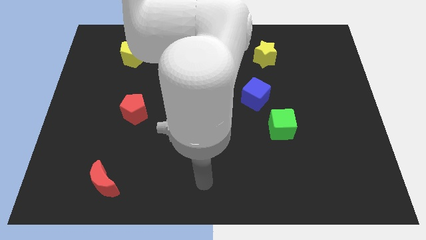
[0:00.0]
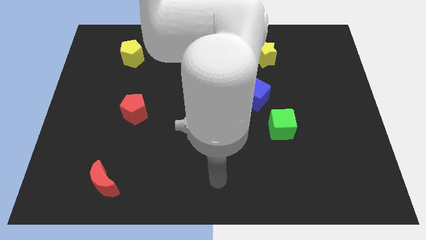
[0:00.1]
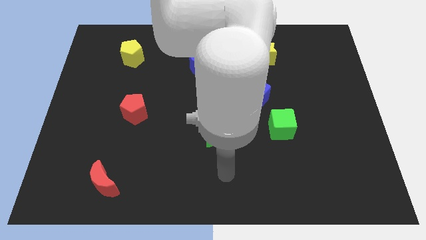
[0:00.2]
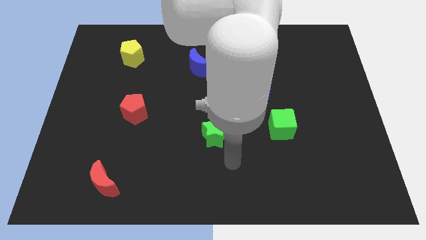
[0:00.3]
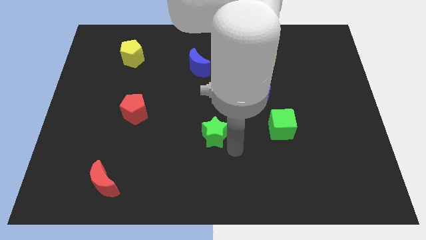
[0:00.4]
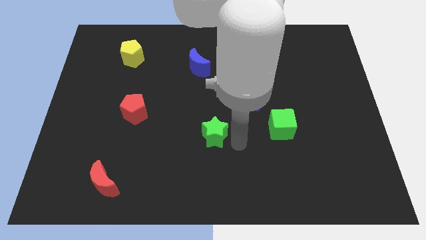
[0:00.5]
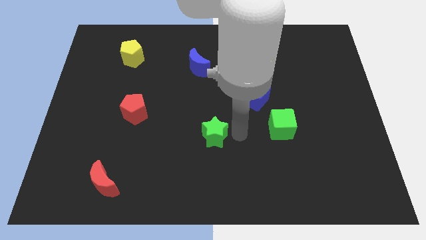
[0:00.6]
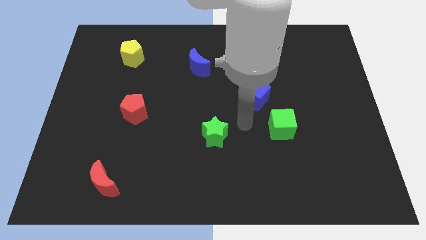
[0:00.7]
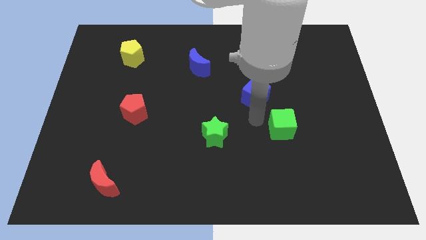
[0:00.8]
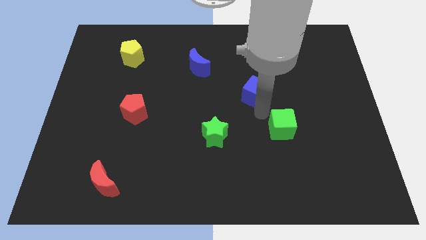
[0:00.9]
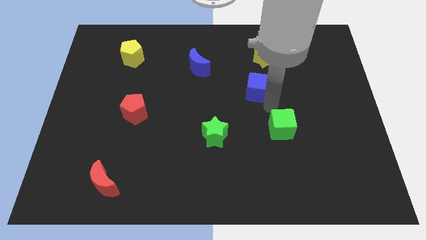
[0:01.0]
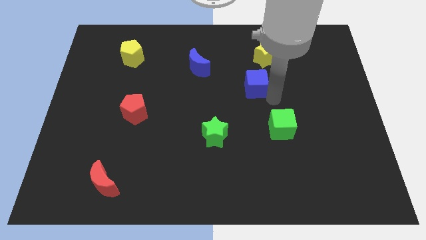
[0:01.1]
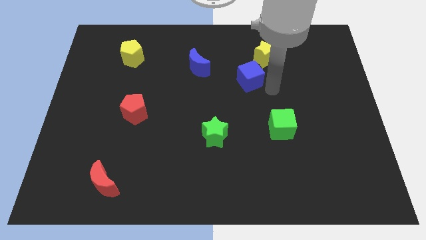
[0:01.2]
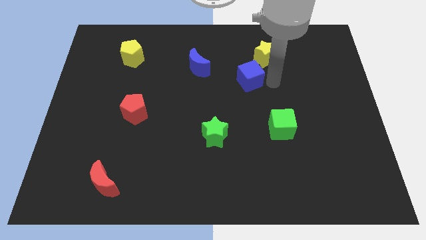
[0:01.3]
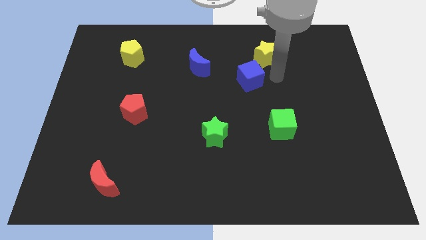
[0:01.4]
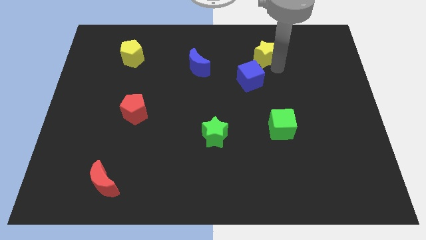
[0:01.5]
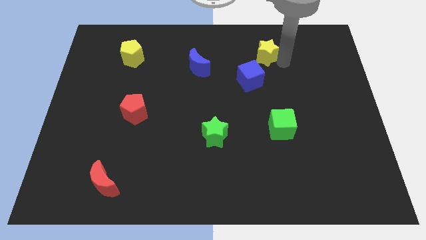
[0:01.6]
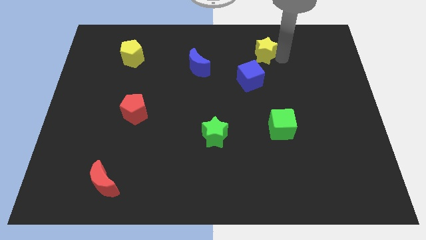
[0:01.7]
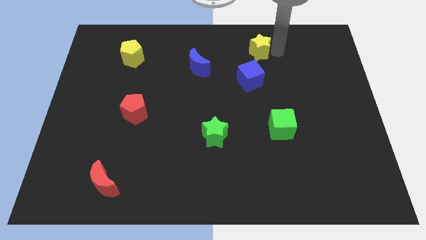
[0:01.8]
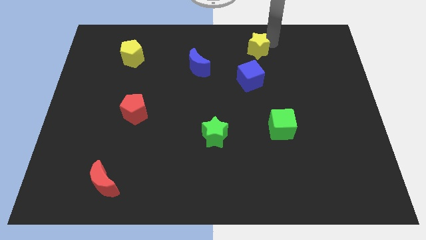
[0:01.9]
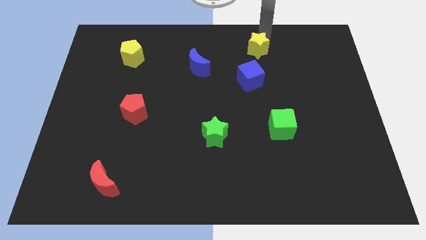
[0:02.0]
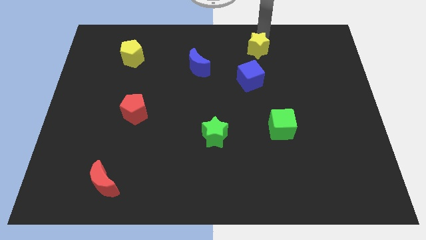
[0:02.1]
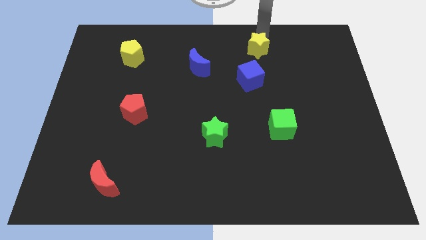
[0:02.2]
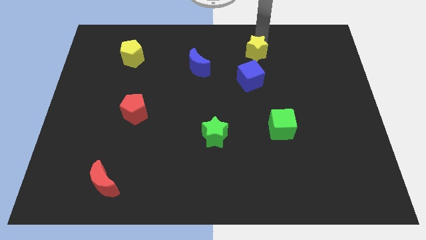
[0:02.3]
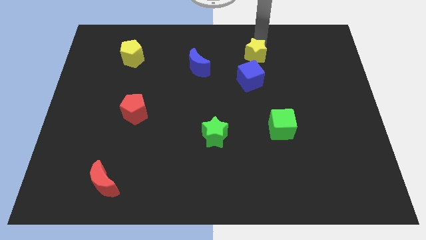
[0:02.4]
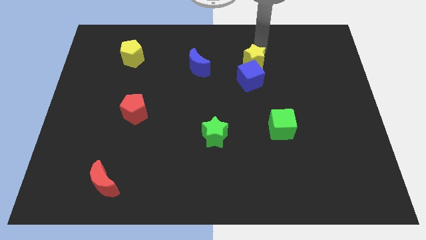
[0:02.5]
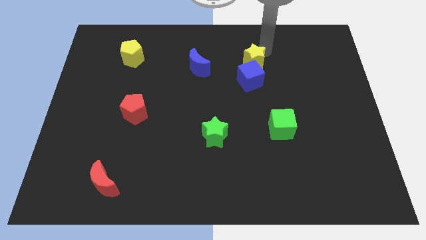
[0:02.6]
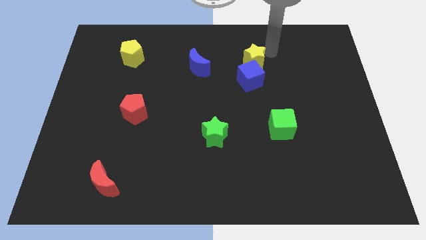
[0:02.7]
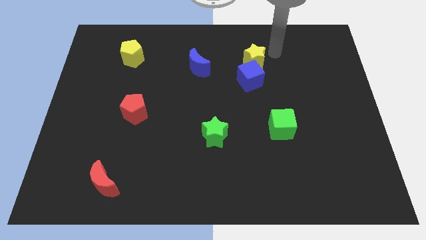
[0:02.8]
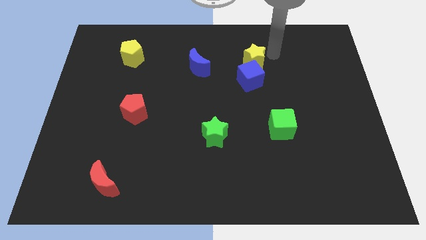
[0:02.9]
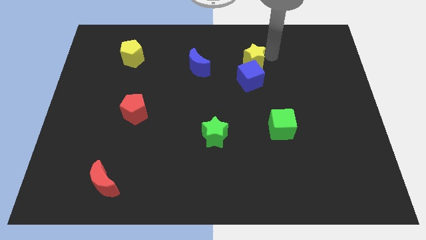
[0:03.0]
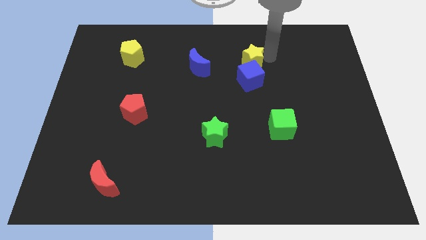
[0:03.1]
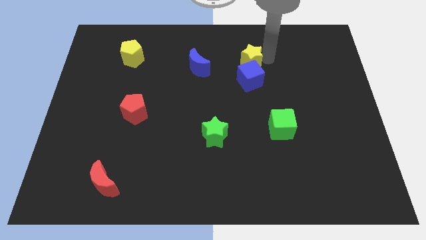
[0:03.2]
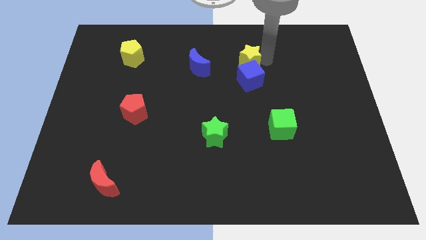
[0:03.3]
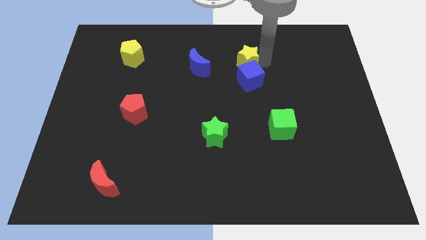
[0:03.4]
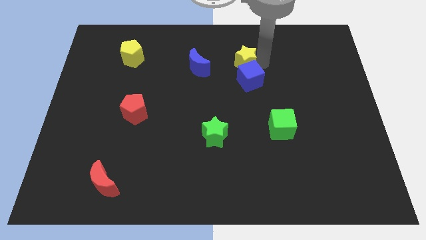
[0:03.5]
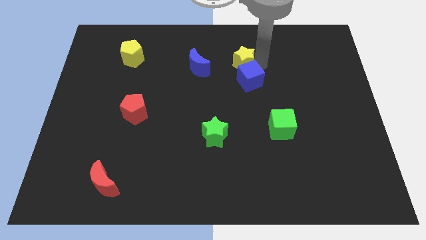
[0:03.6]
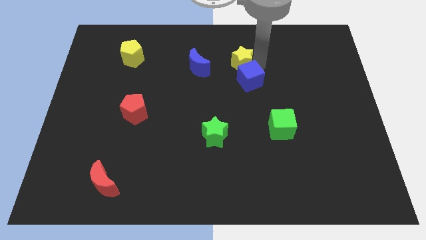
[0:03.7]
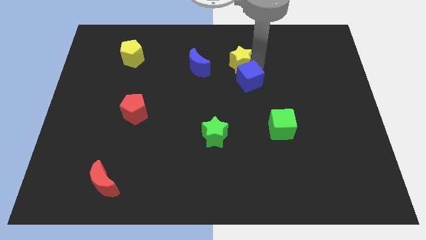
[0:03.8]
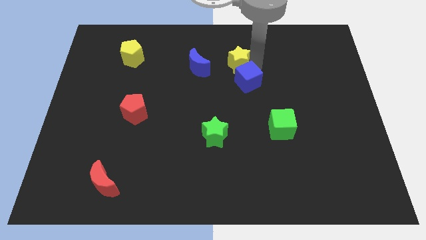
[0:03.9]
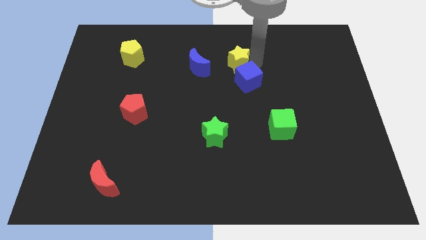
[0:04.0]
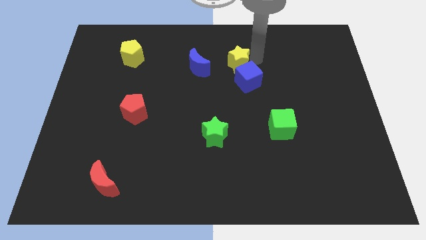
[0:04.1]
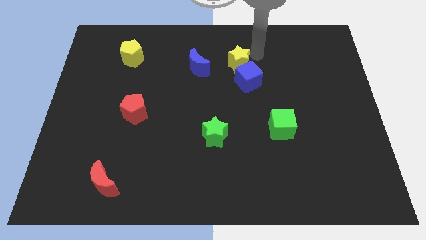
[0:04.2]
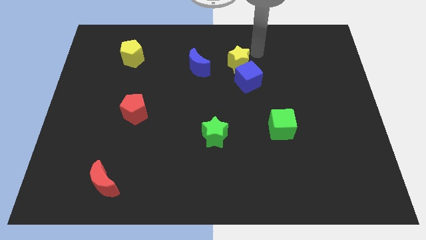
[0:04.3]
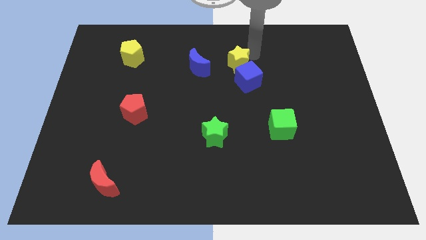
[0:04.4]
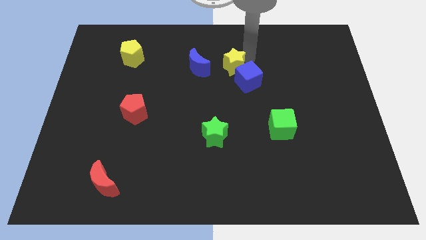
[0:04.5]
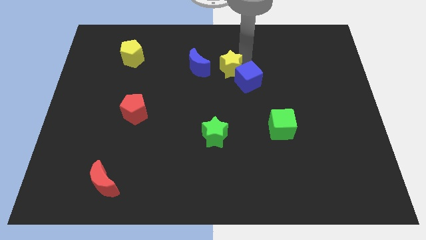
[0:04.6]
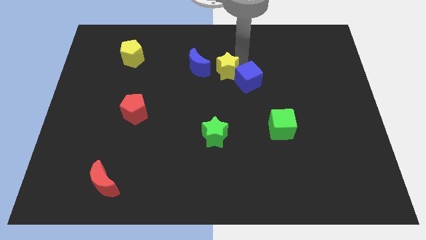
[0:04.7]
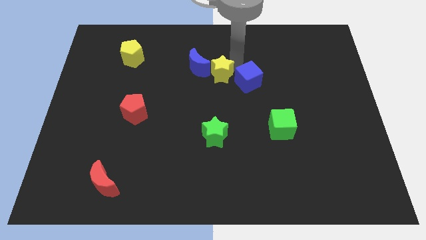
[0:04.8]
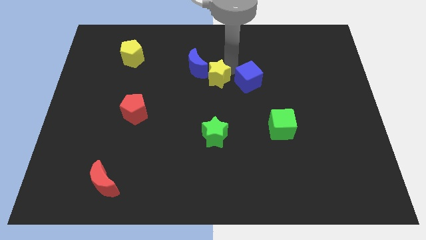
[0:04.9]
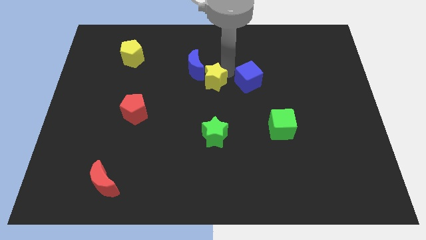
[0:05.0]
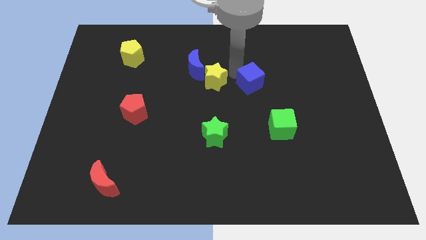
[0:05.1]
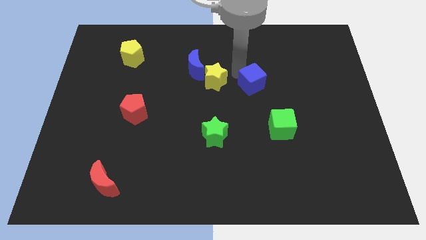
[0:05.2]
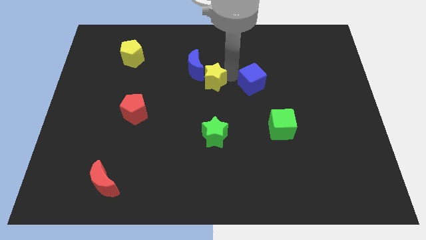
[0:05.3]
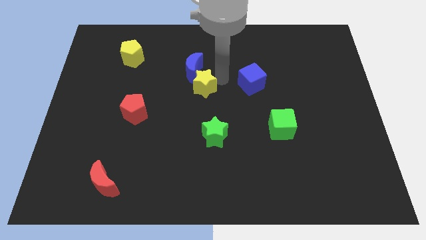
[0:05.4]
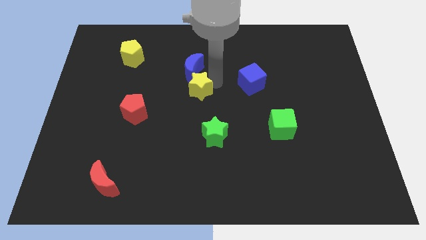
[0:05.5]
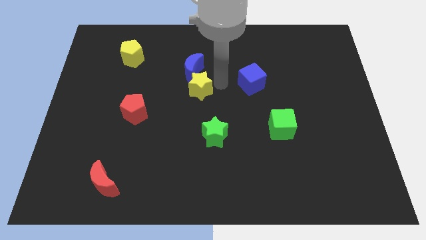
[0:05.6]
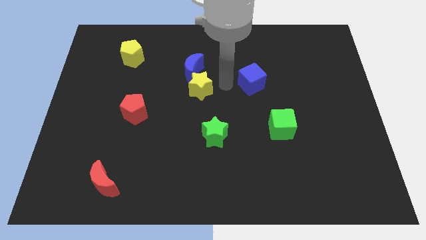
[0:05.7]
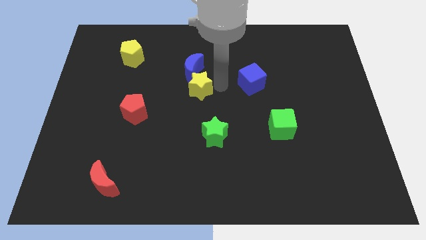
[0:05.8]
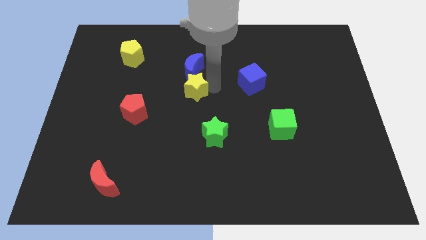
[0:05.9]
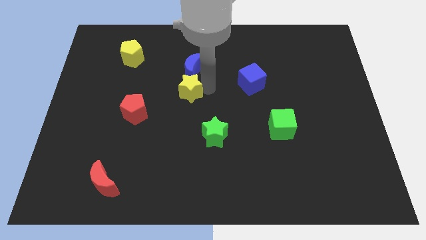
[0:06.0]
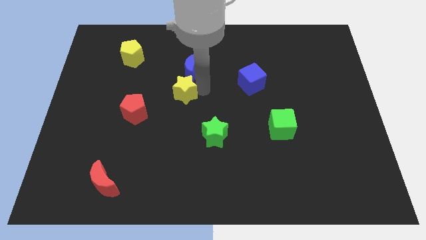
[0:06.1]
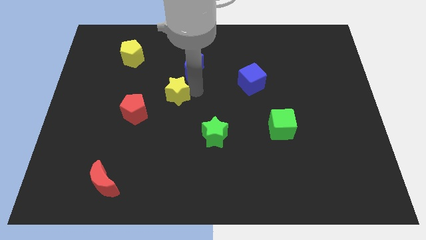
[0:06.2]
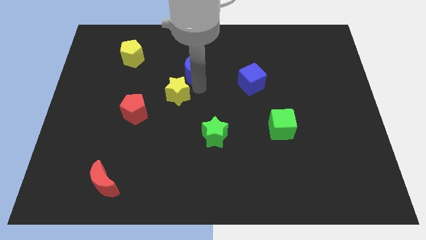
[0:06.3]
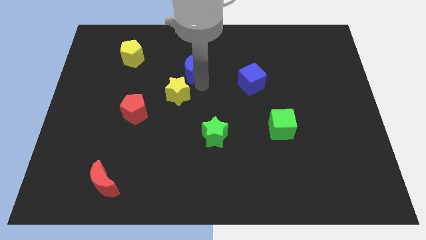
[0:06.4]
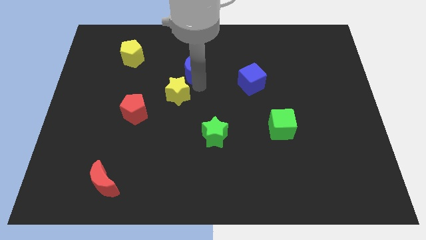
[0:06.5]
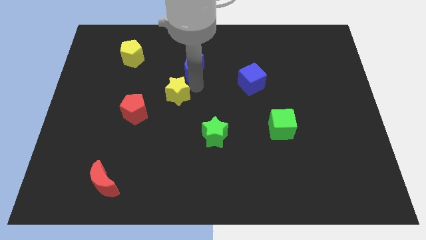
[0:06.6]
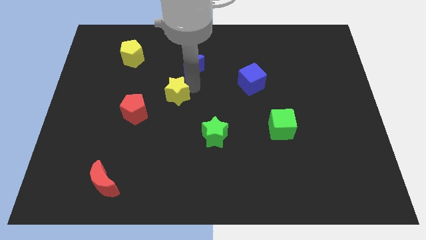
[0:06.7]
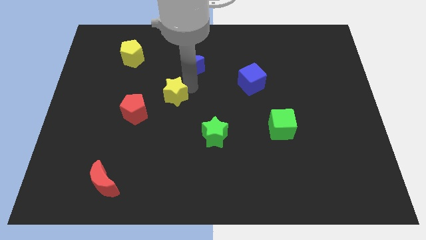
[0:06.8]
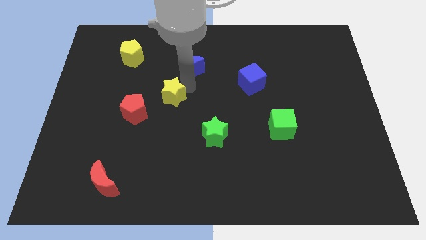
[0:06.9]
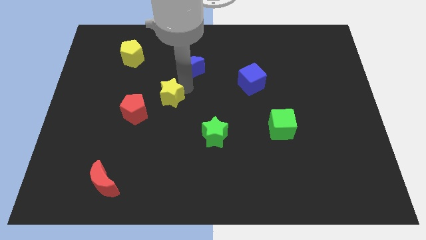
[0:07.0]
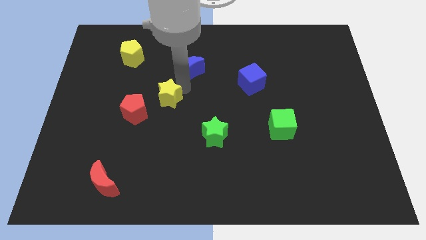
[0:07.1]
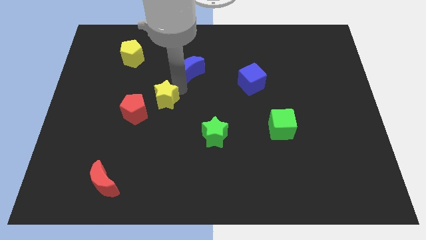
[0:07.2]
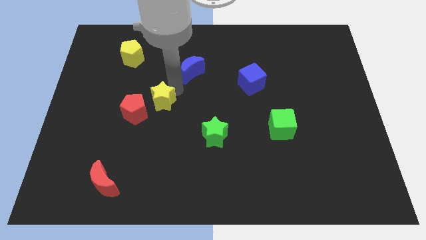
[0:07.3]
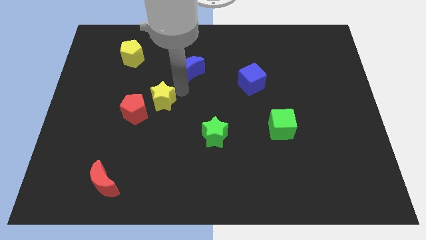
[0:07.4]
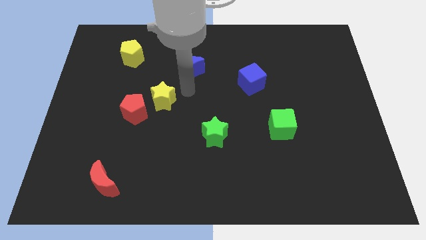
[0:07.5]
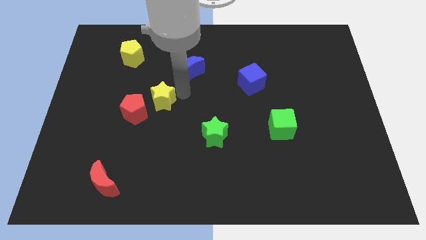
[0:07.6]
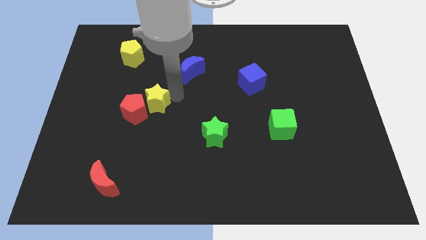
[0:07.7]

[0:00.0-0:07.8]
put the yellow star next to the red pentagon
